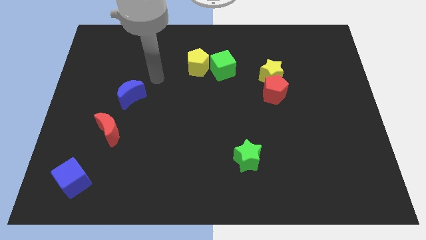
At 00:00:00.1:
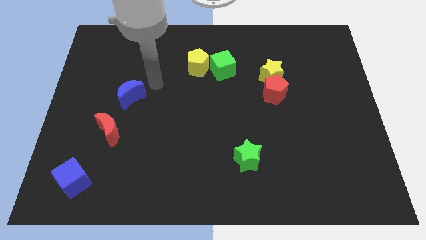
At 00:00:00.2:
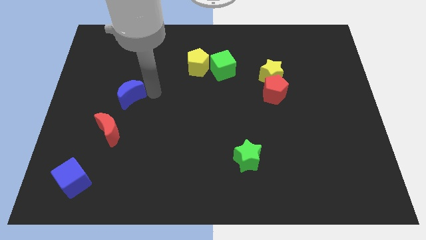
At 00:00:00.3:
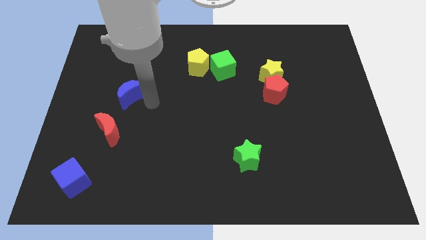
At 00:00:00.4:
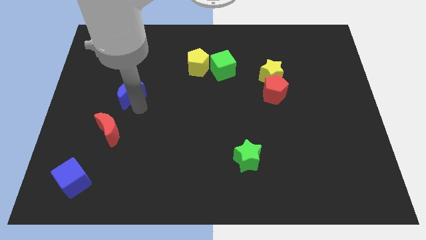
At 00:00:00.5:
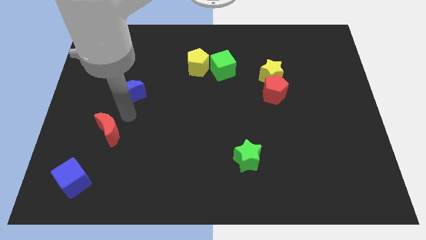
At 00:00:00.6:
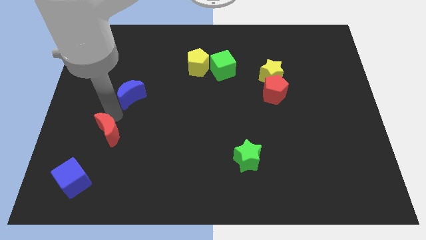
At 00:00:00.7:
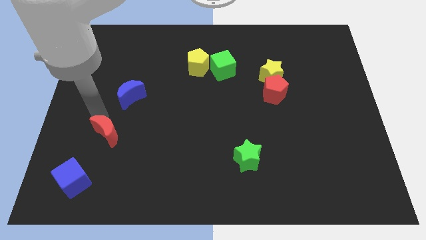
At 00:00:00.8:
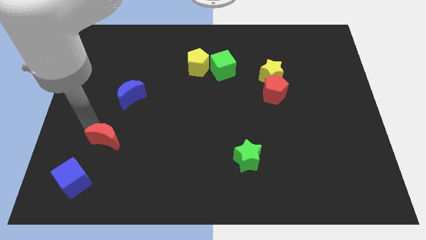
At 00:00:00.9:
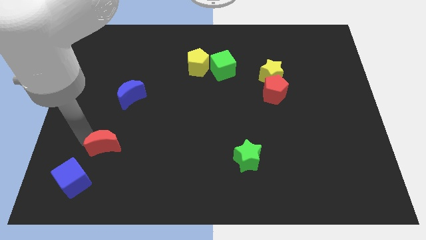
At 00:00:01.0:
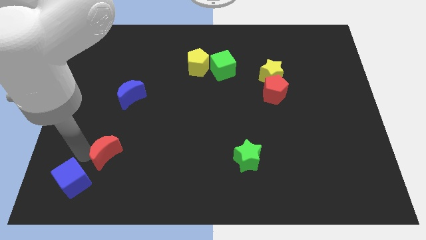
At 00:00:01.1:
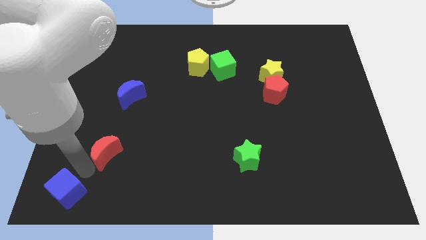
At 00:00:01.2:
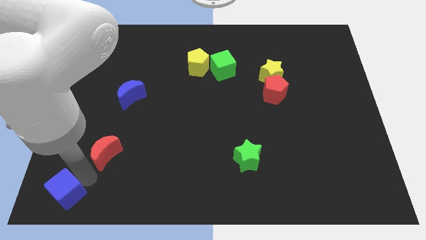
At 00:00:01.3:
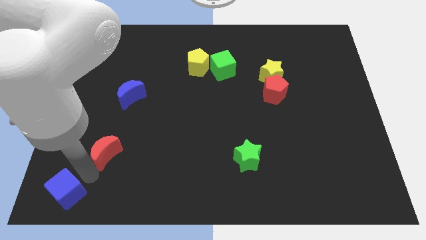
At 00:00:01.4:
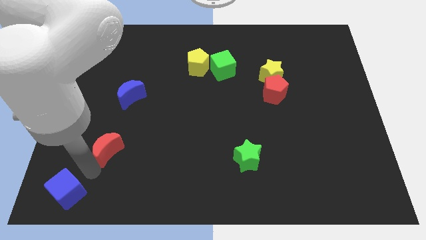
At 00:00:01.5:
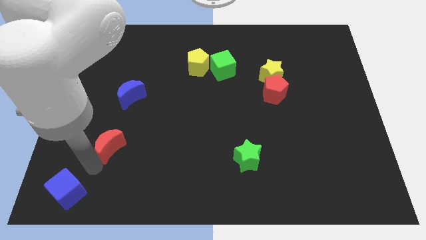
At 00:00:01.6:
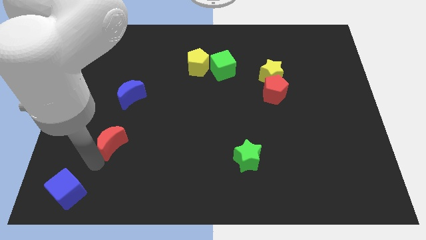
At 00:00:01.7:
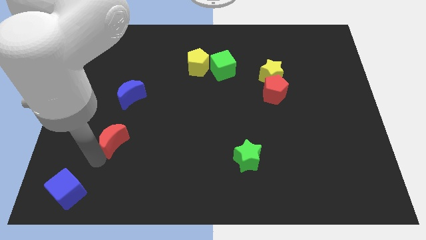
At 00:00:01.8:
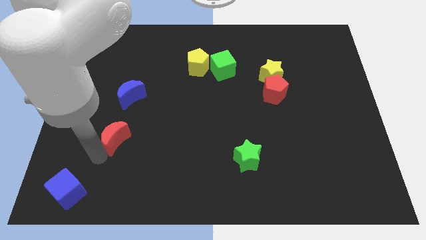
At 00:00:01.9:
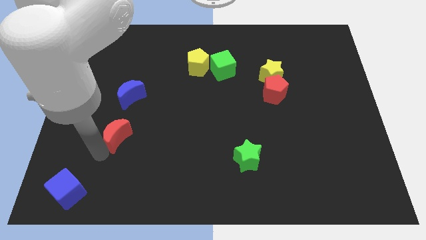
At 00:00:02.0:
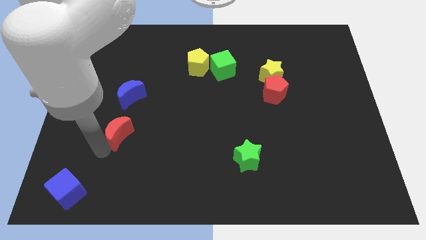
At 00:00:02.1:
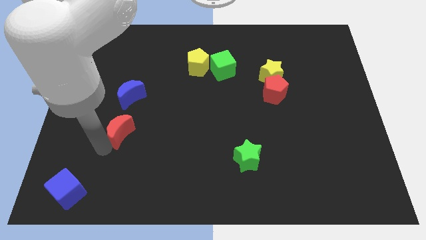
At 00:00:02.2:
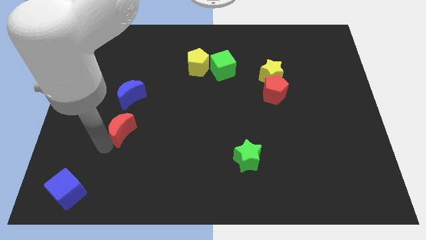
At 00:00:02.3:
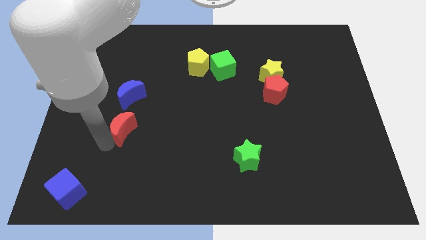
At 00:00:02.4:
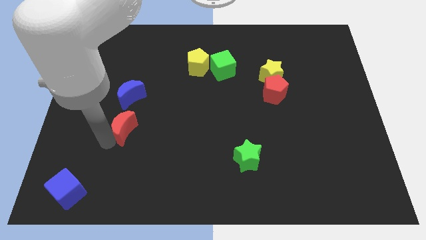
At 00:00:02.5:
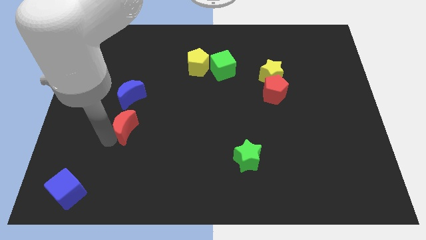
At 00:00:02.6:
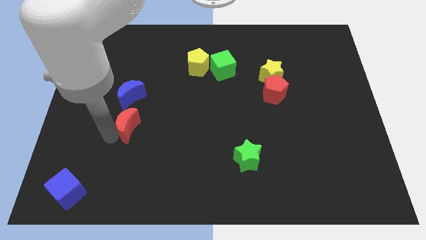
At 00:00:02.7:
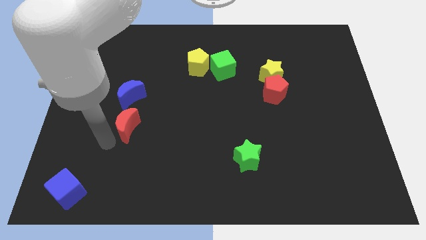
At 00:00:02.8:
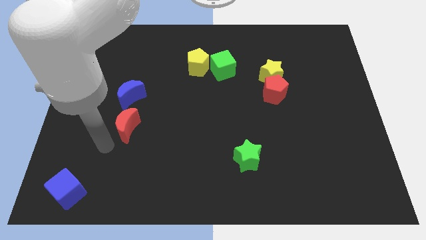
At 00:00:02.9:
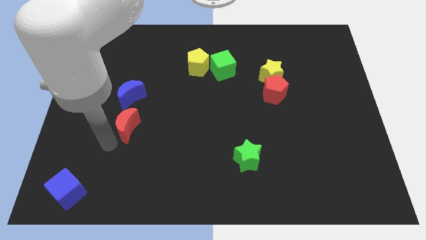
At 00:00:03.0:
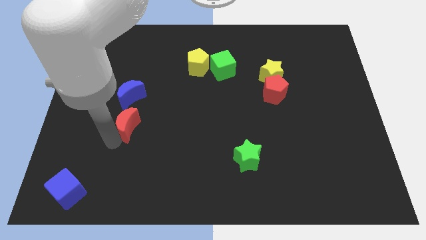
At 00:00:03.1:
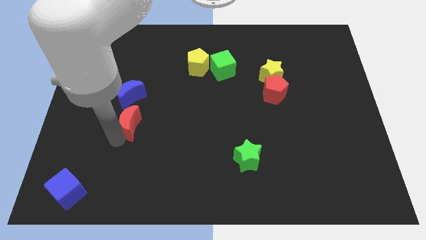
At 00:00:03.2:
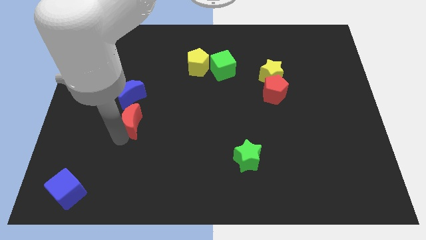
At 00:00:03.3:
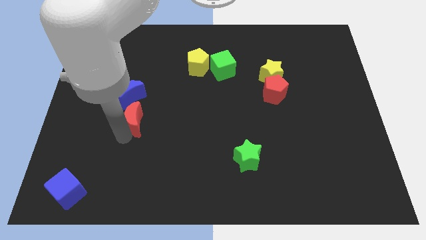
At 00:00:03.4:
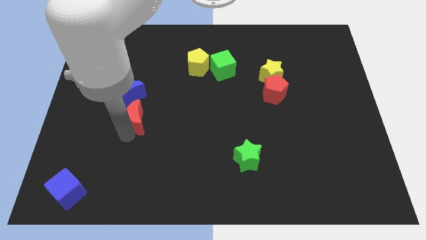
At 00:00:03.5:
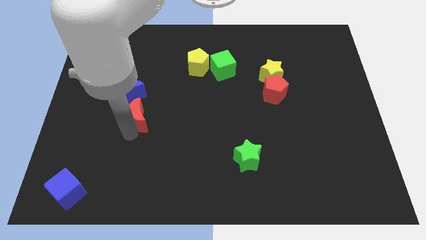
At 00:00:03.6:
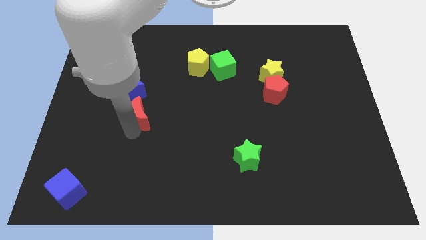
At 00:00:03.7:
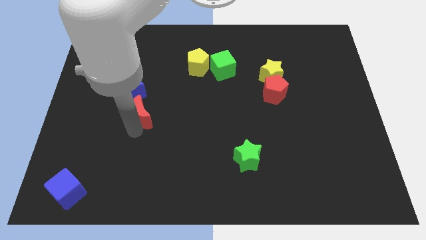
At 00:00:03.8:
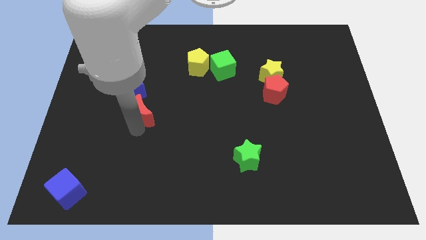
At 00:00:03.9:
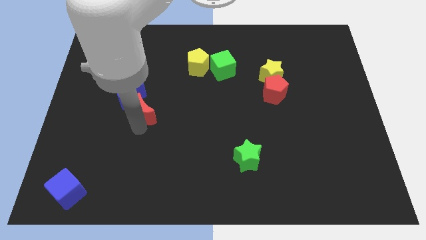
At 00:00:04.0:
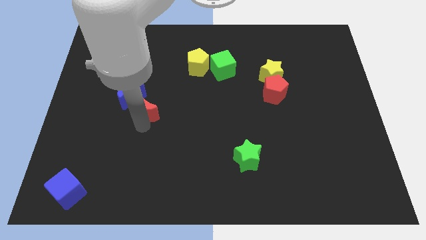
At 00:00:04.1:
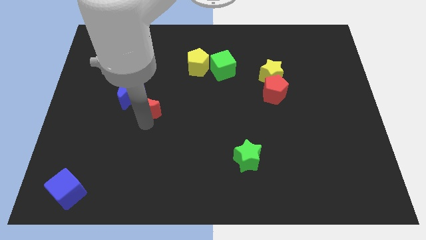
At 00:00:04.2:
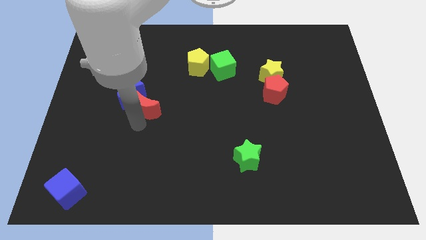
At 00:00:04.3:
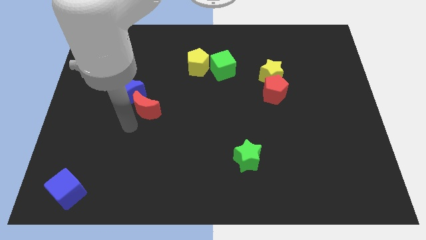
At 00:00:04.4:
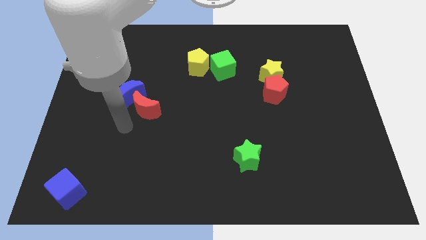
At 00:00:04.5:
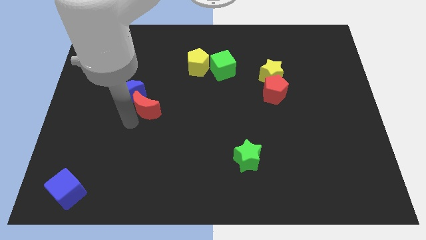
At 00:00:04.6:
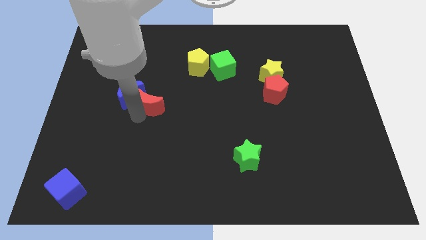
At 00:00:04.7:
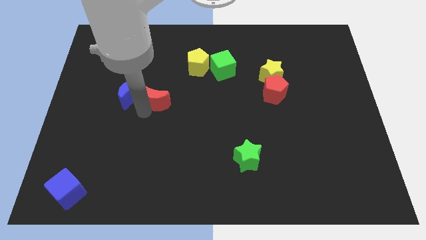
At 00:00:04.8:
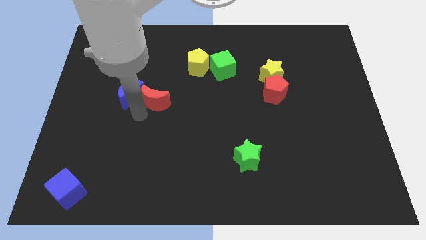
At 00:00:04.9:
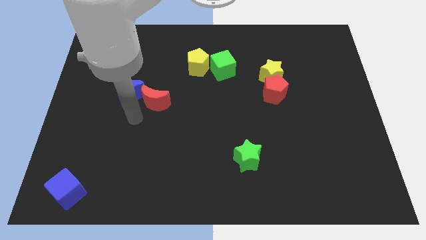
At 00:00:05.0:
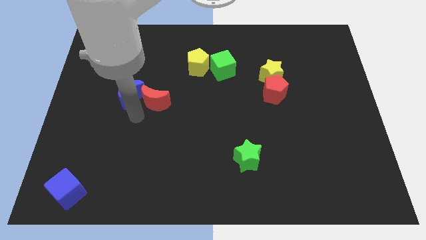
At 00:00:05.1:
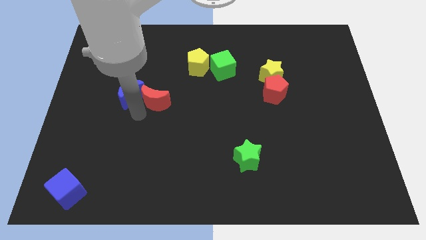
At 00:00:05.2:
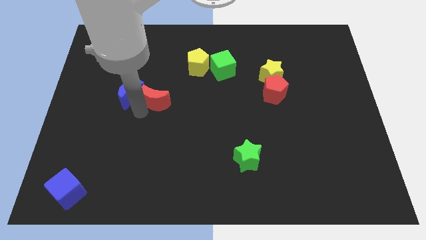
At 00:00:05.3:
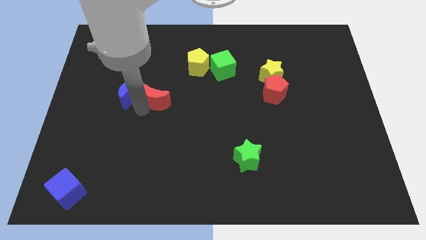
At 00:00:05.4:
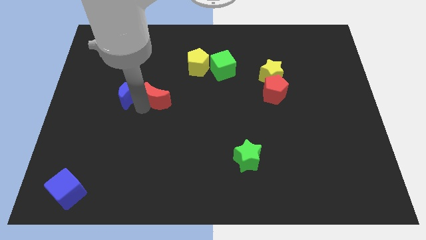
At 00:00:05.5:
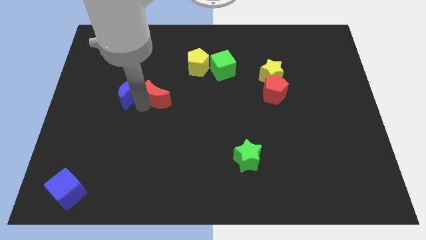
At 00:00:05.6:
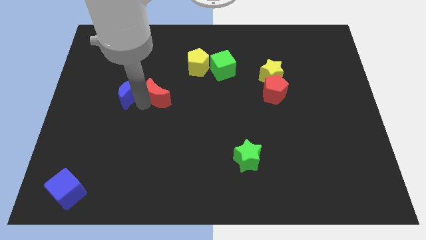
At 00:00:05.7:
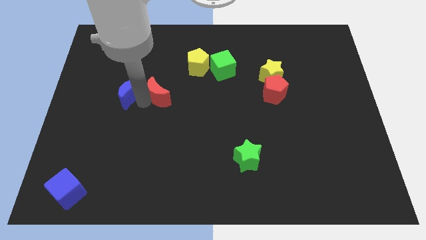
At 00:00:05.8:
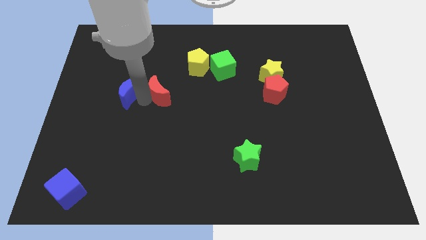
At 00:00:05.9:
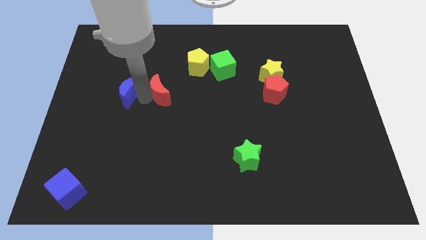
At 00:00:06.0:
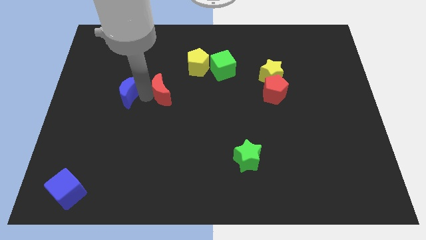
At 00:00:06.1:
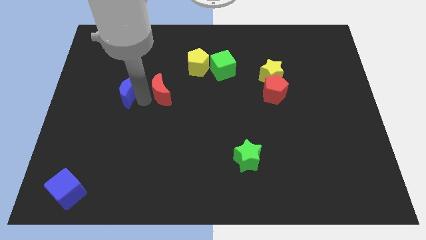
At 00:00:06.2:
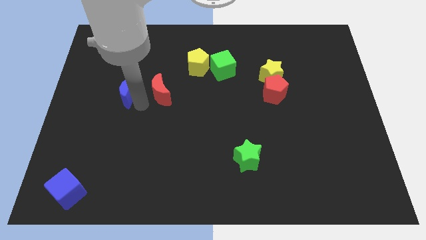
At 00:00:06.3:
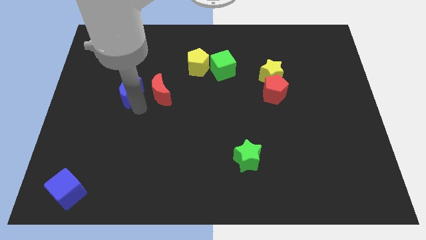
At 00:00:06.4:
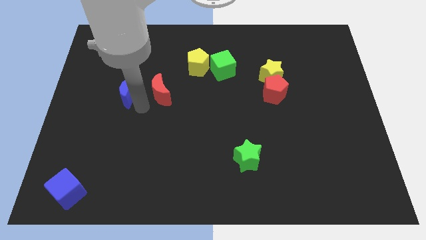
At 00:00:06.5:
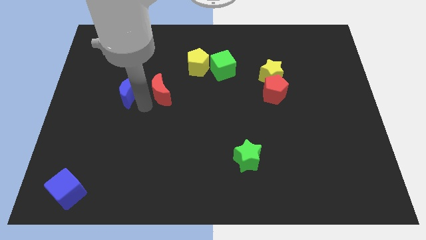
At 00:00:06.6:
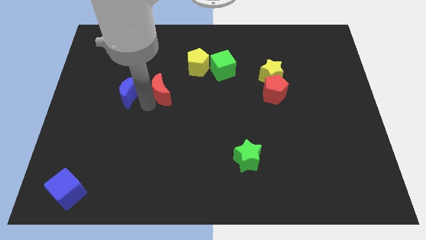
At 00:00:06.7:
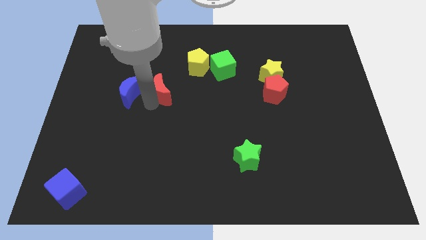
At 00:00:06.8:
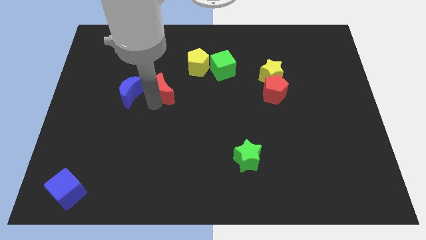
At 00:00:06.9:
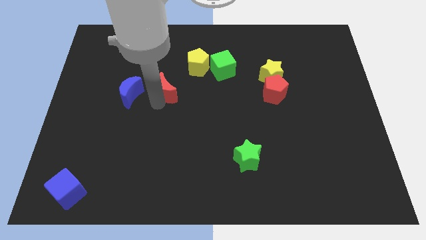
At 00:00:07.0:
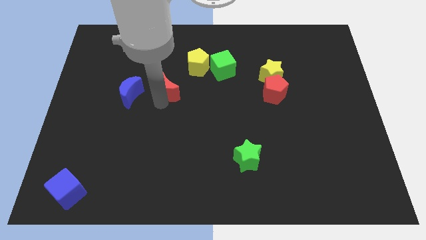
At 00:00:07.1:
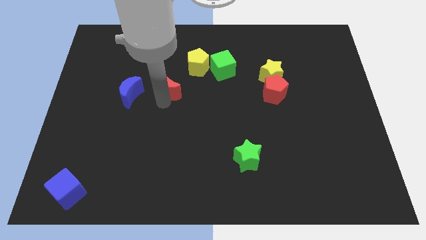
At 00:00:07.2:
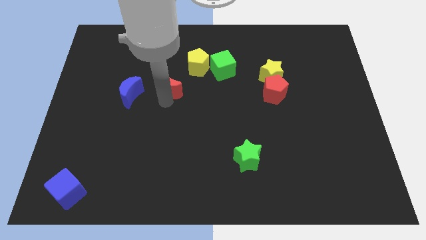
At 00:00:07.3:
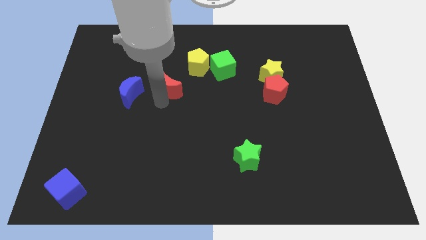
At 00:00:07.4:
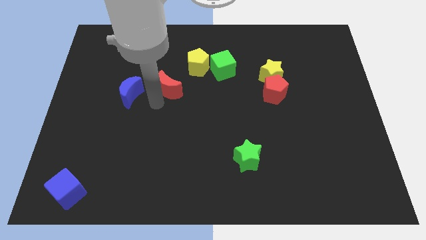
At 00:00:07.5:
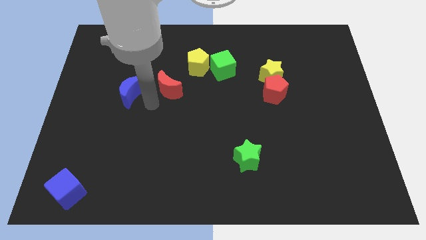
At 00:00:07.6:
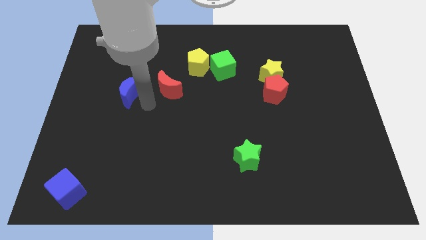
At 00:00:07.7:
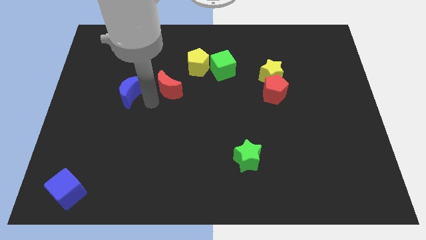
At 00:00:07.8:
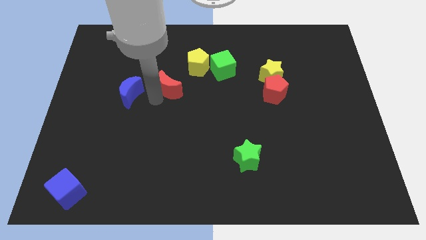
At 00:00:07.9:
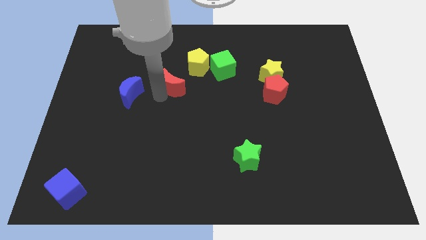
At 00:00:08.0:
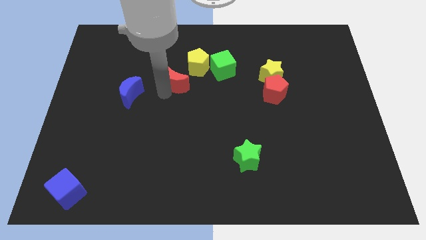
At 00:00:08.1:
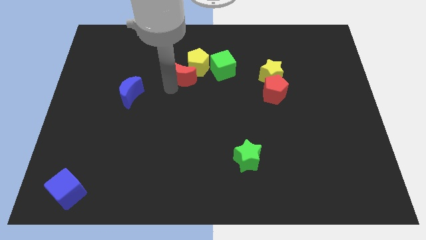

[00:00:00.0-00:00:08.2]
push the red moon next to the yellow pentagon
